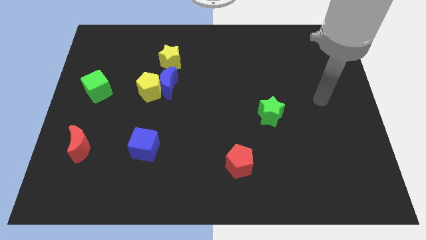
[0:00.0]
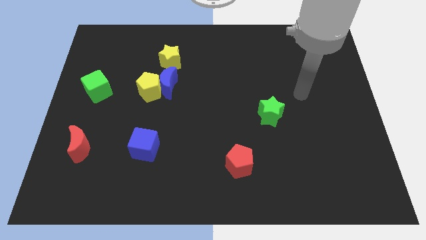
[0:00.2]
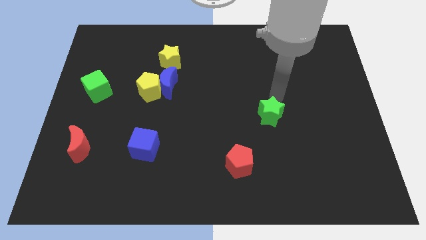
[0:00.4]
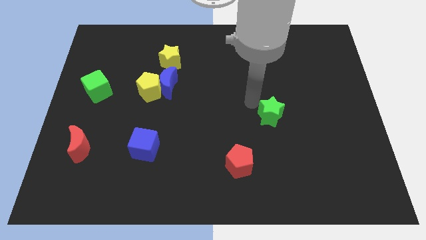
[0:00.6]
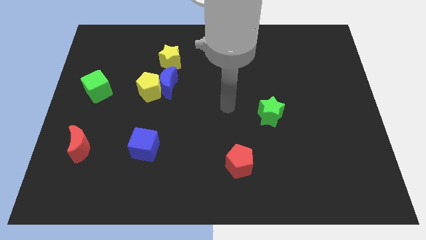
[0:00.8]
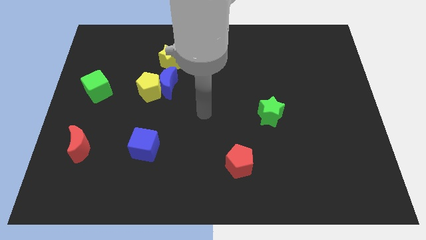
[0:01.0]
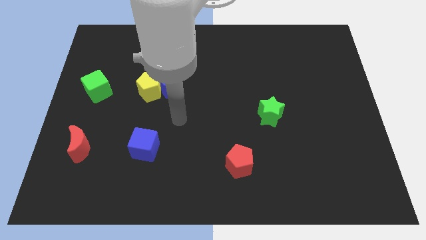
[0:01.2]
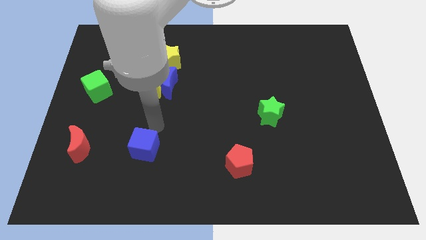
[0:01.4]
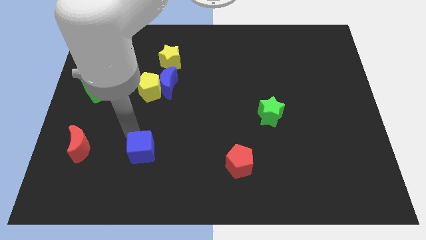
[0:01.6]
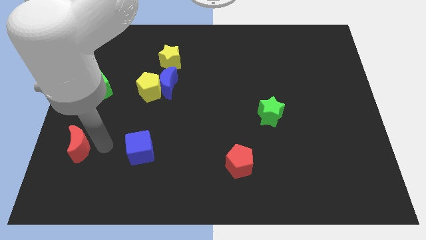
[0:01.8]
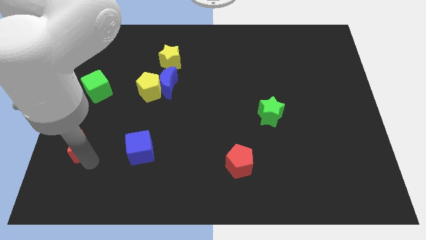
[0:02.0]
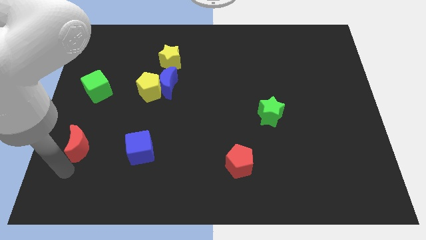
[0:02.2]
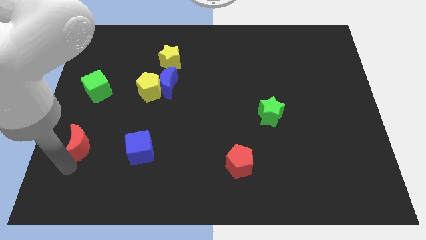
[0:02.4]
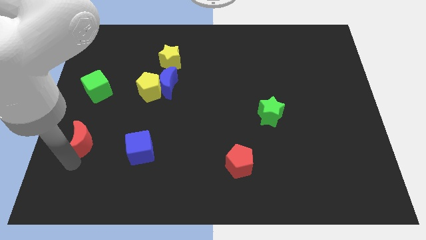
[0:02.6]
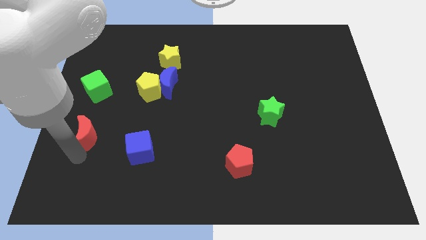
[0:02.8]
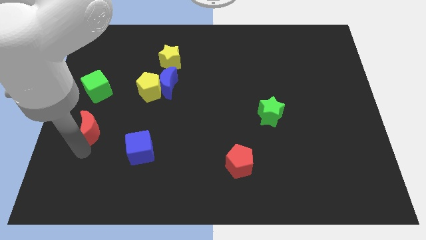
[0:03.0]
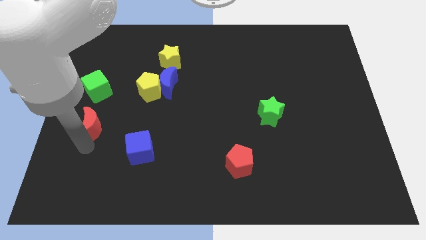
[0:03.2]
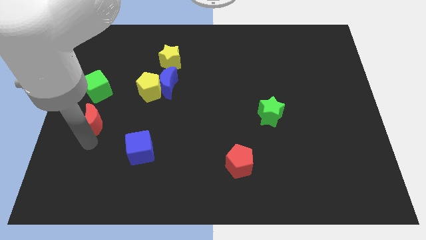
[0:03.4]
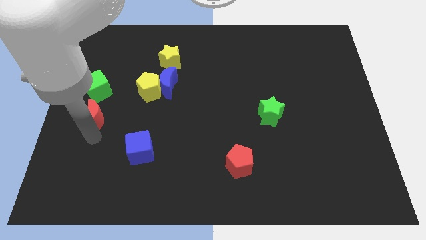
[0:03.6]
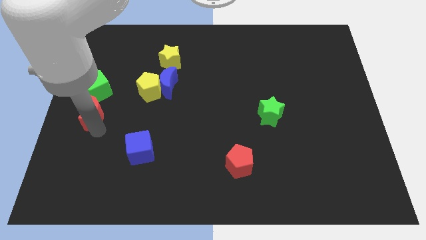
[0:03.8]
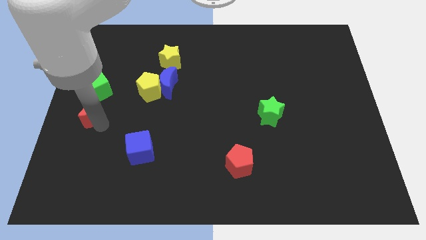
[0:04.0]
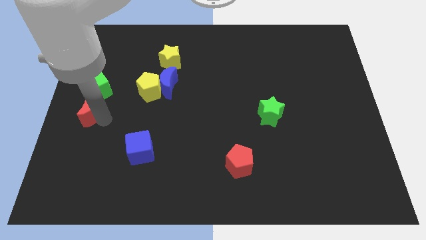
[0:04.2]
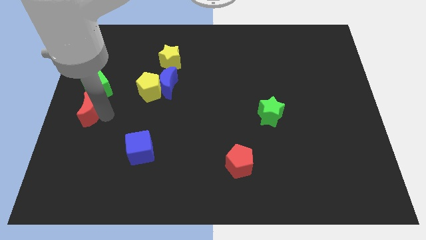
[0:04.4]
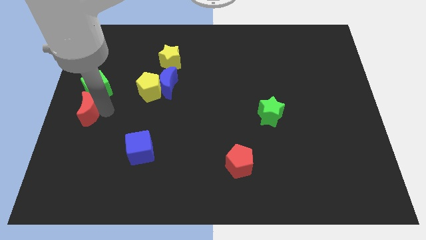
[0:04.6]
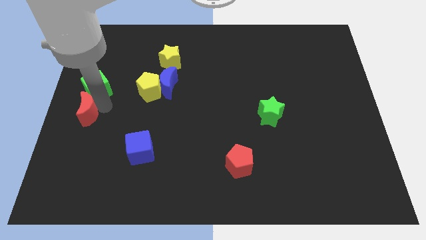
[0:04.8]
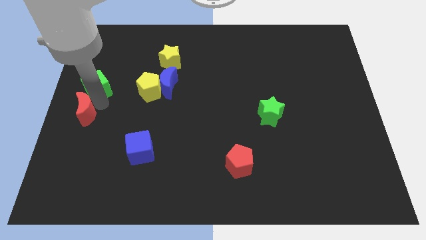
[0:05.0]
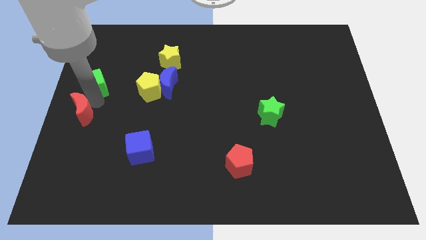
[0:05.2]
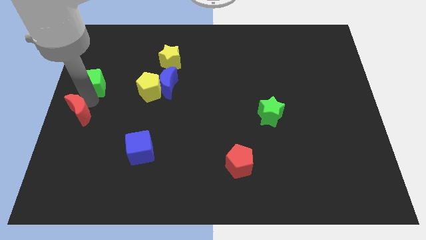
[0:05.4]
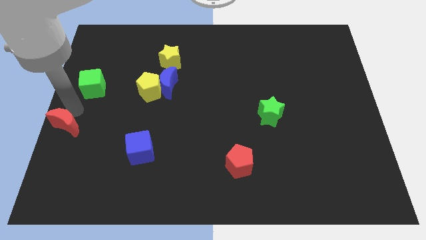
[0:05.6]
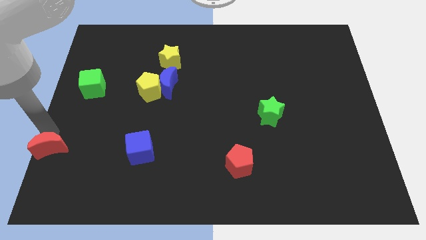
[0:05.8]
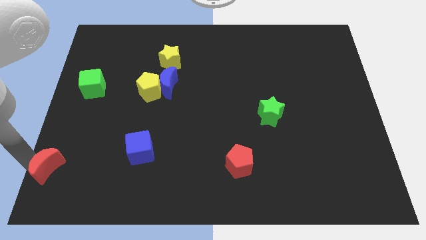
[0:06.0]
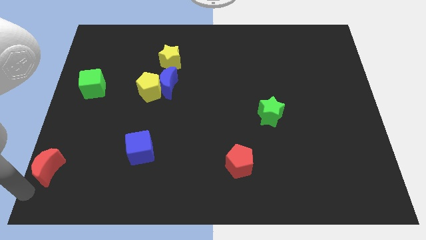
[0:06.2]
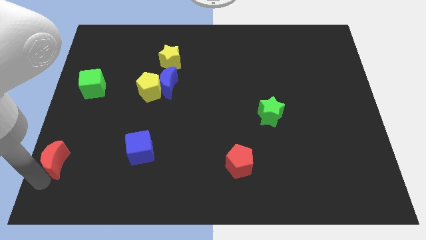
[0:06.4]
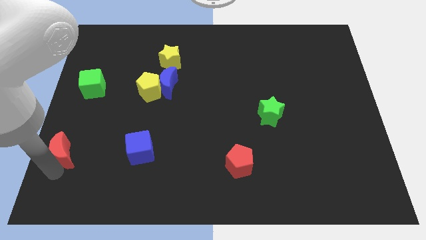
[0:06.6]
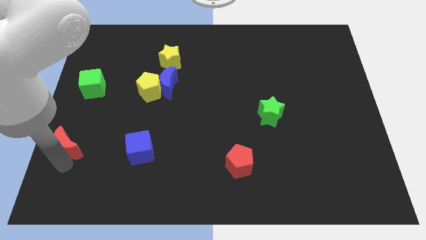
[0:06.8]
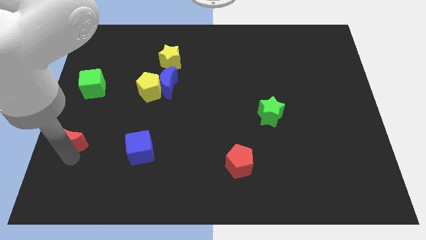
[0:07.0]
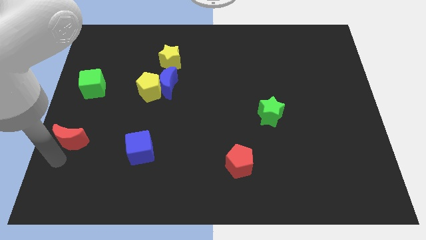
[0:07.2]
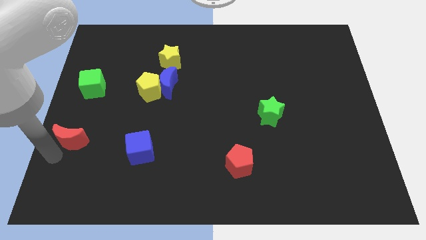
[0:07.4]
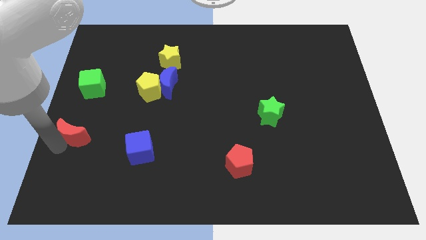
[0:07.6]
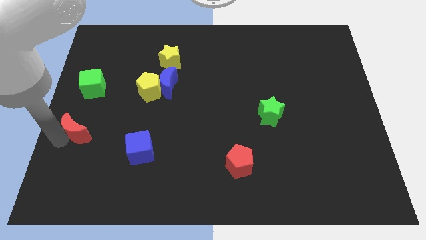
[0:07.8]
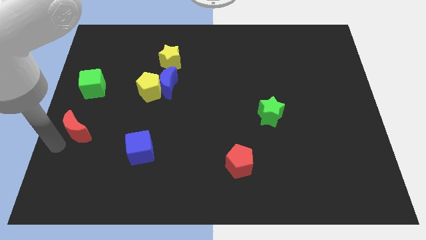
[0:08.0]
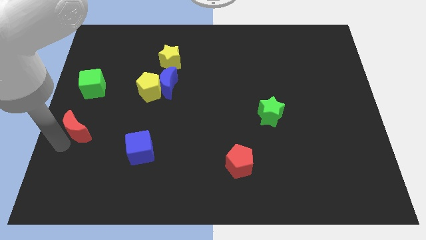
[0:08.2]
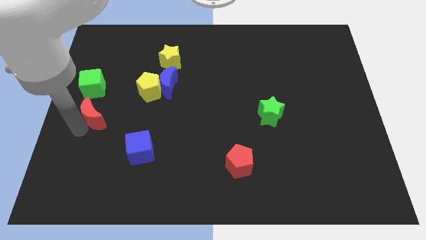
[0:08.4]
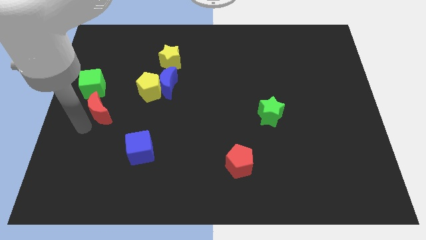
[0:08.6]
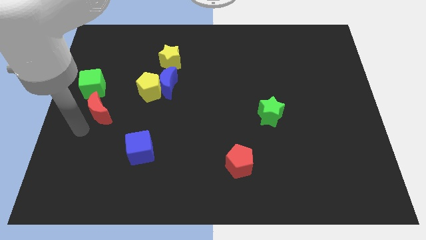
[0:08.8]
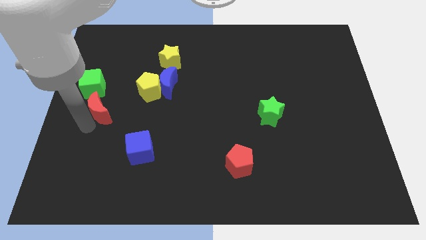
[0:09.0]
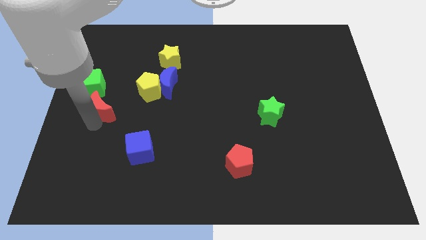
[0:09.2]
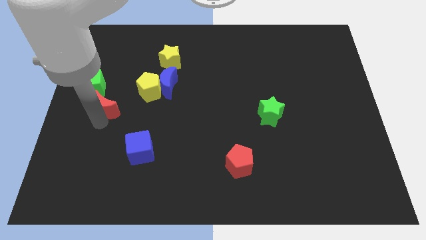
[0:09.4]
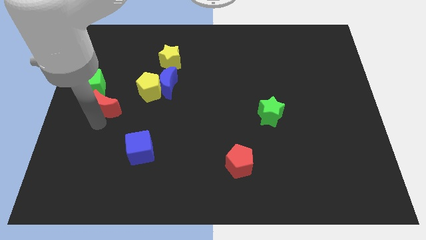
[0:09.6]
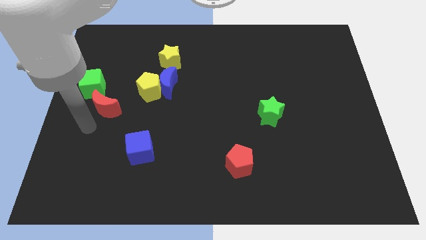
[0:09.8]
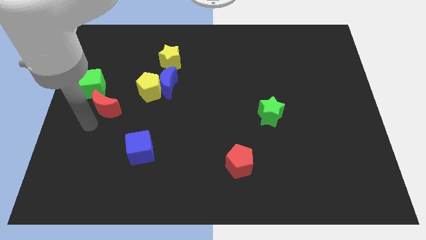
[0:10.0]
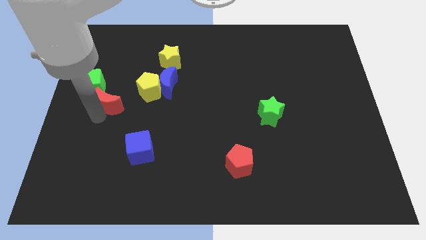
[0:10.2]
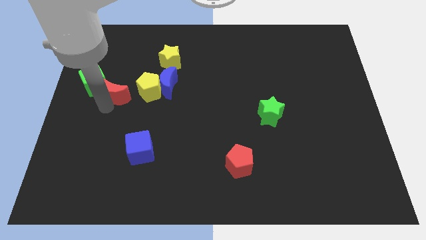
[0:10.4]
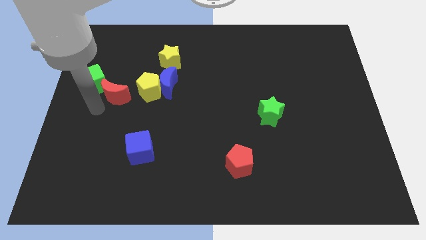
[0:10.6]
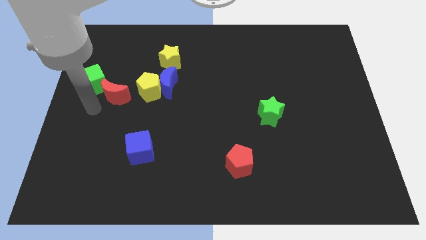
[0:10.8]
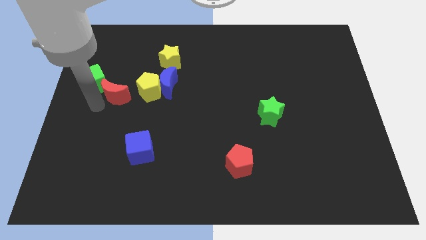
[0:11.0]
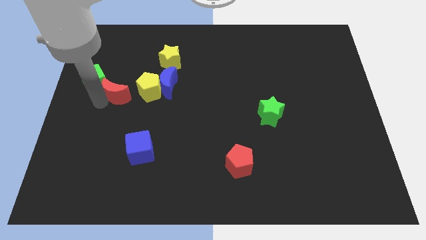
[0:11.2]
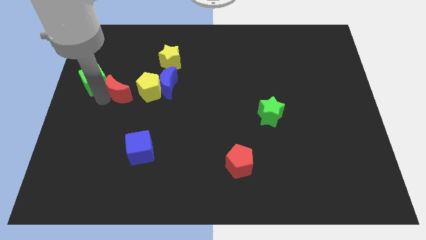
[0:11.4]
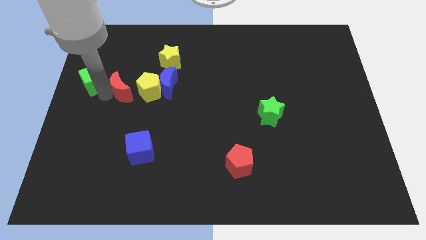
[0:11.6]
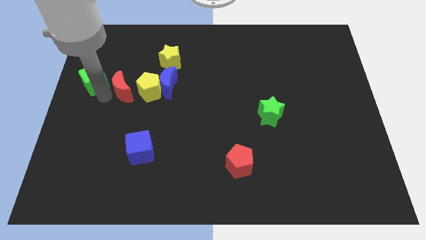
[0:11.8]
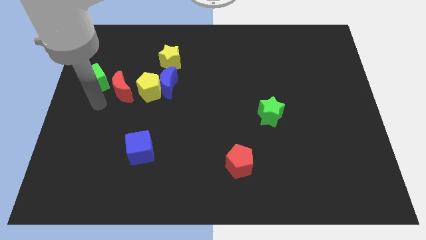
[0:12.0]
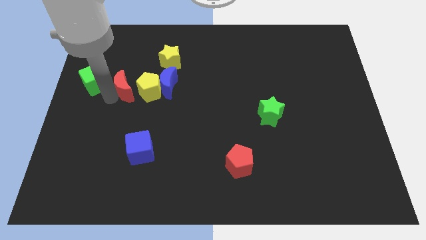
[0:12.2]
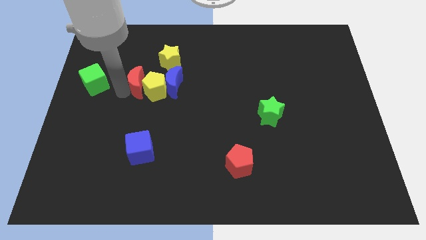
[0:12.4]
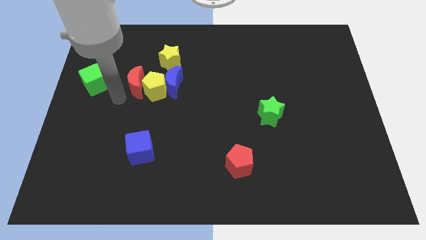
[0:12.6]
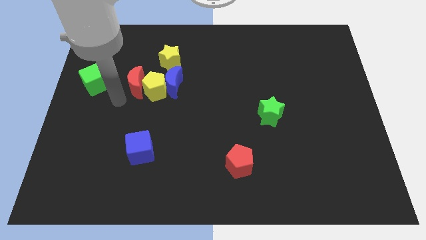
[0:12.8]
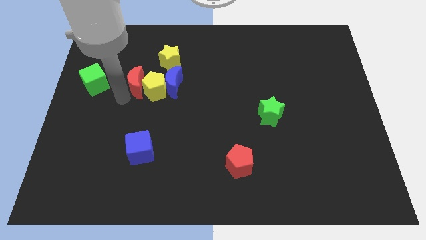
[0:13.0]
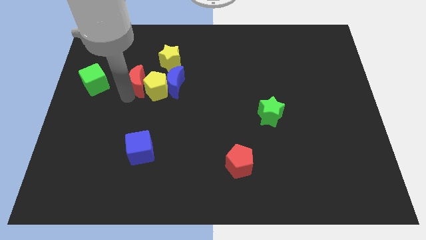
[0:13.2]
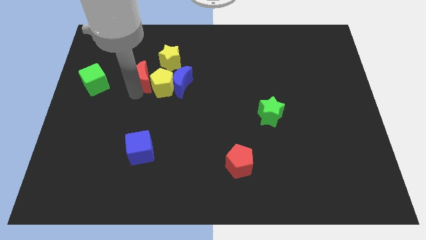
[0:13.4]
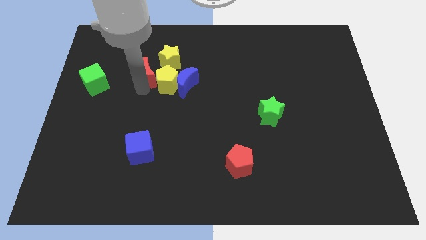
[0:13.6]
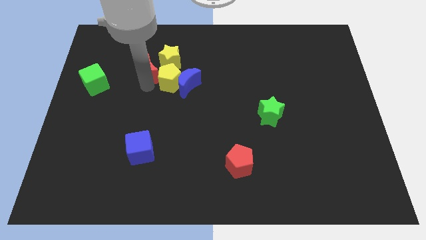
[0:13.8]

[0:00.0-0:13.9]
move the red moon close to the yellow star

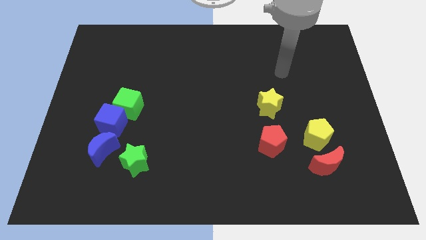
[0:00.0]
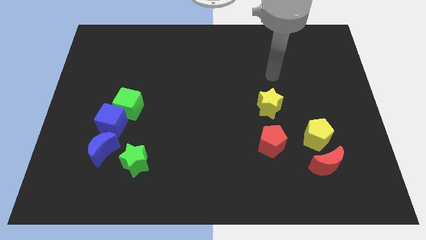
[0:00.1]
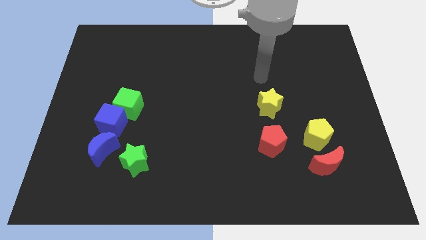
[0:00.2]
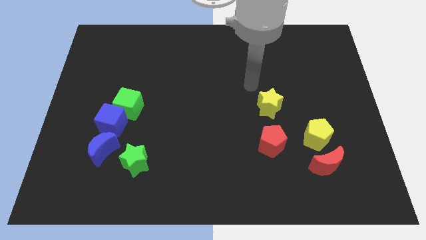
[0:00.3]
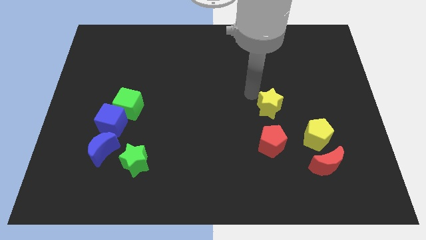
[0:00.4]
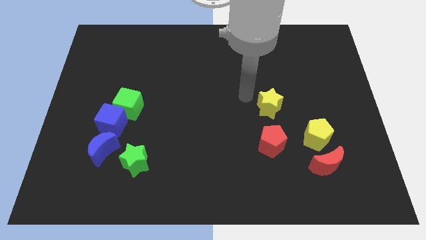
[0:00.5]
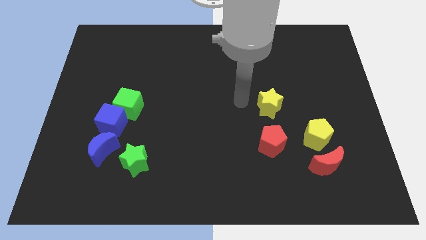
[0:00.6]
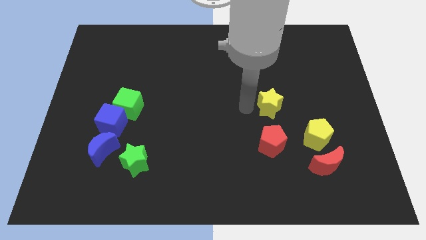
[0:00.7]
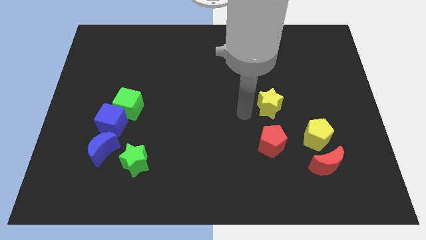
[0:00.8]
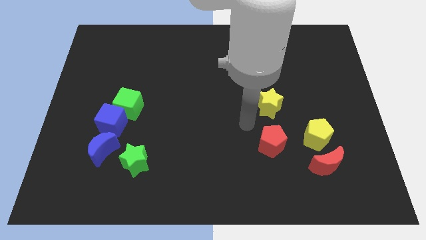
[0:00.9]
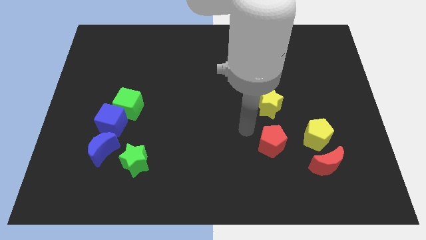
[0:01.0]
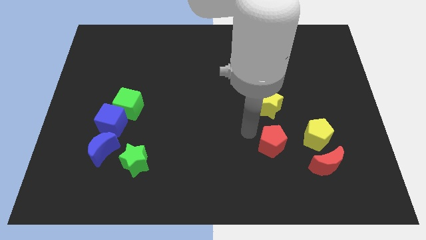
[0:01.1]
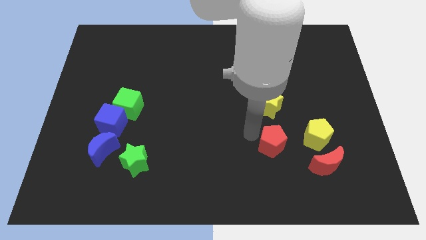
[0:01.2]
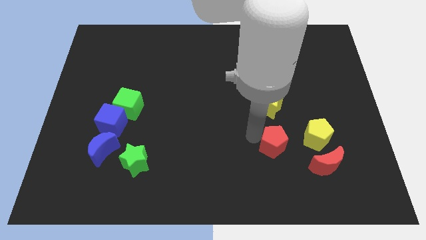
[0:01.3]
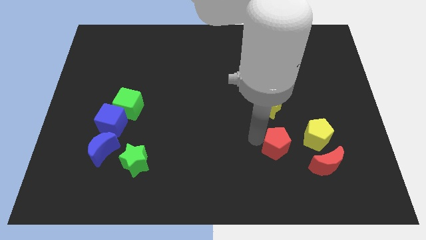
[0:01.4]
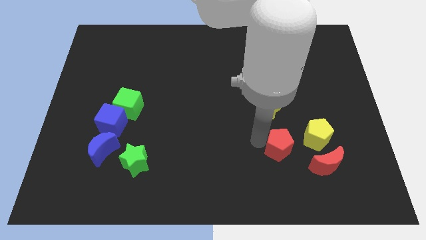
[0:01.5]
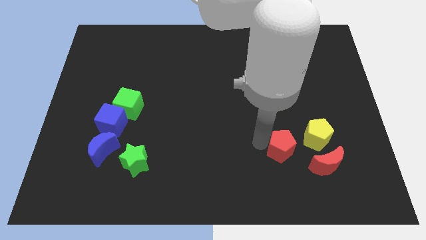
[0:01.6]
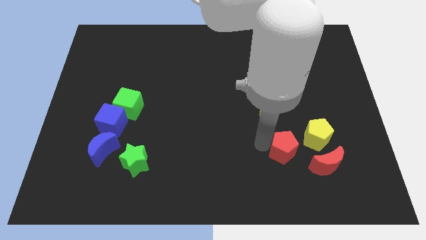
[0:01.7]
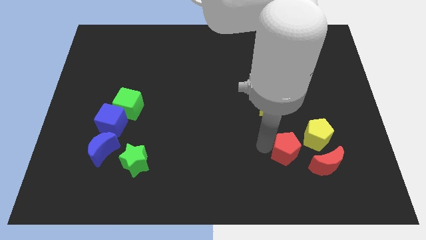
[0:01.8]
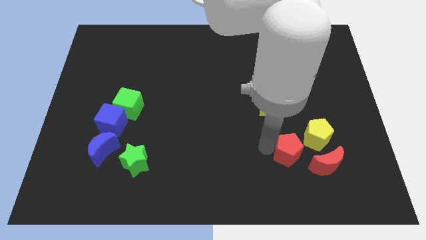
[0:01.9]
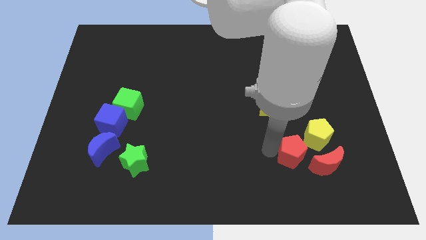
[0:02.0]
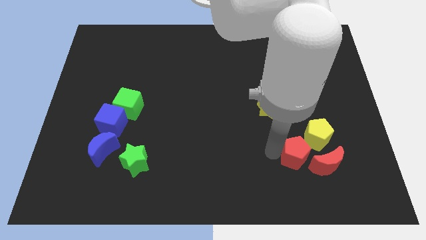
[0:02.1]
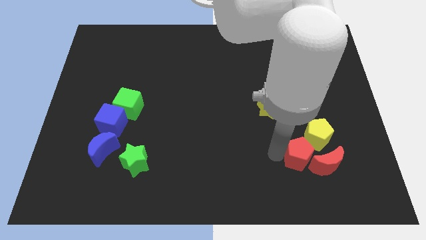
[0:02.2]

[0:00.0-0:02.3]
push the red pentagon close to the red moon
